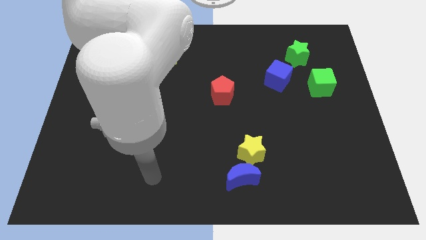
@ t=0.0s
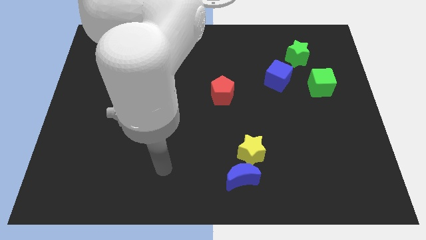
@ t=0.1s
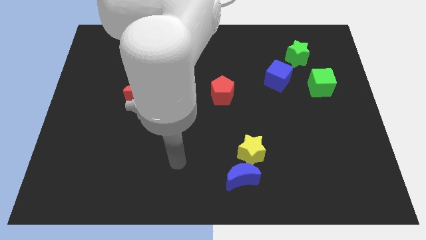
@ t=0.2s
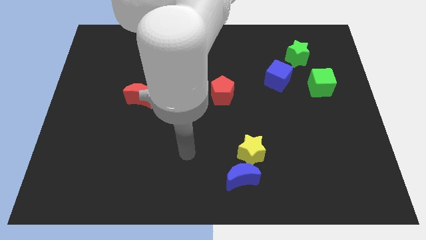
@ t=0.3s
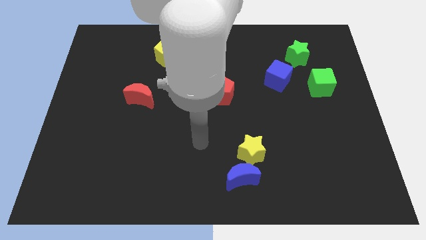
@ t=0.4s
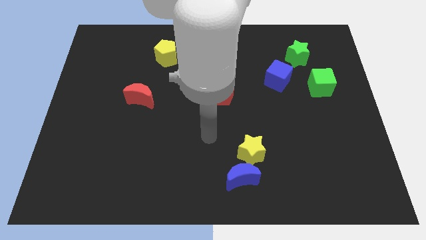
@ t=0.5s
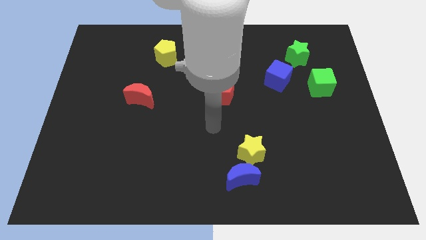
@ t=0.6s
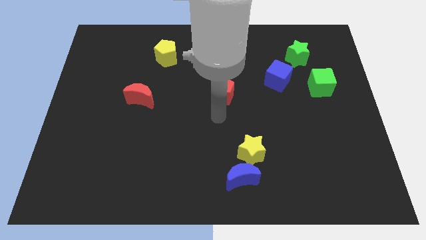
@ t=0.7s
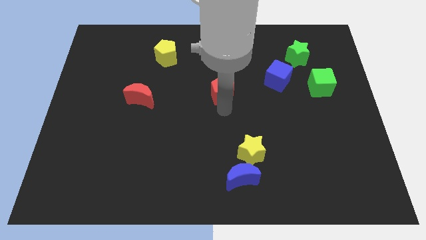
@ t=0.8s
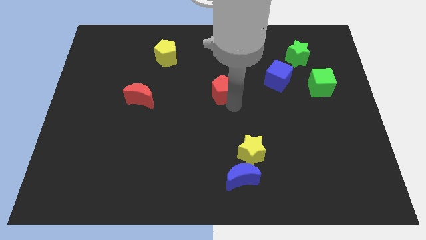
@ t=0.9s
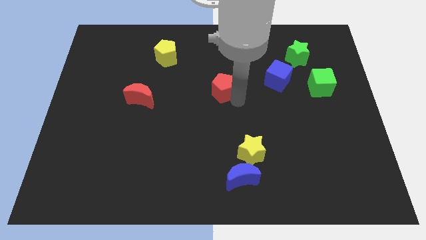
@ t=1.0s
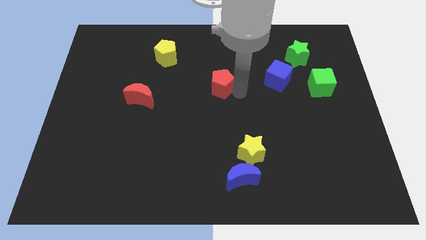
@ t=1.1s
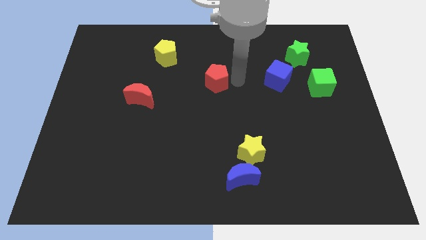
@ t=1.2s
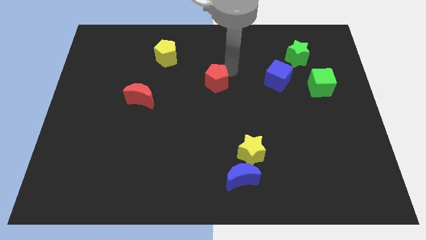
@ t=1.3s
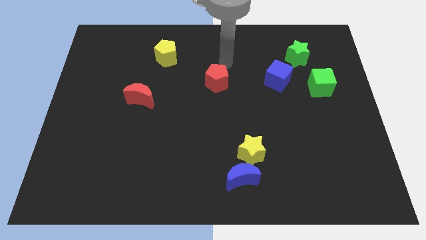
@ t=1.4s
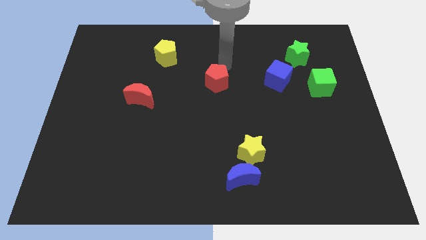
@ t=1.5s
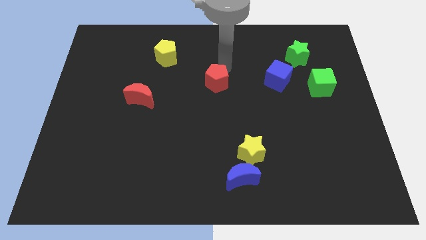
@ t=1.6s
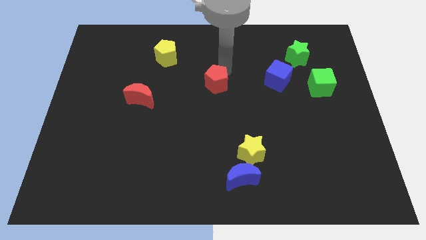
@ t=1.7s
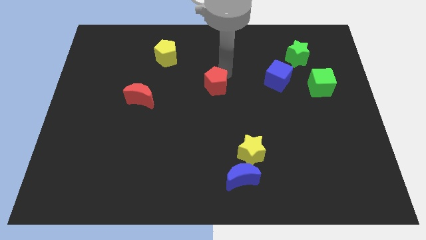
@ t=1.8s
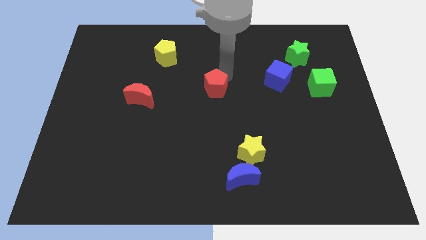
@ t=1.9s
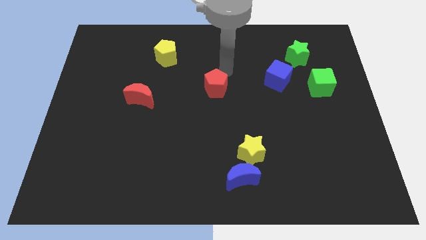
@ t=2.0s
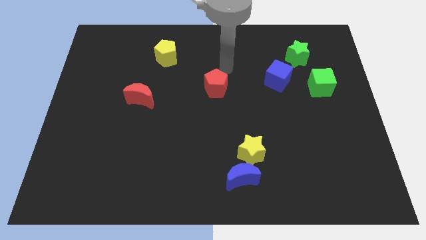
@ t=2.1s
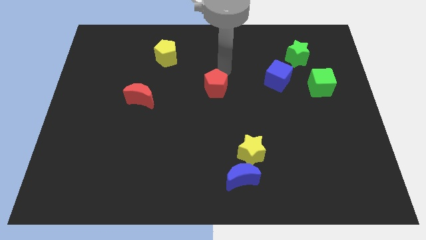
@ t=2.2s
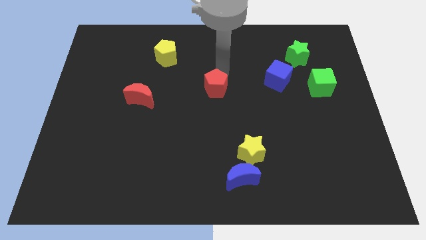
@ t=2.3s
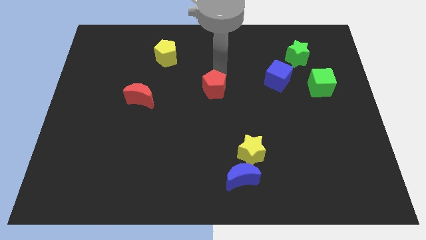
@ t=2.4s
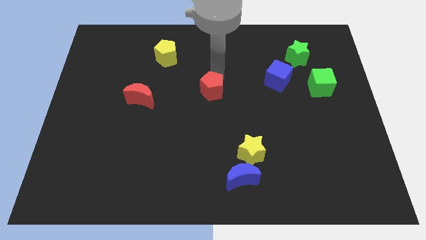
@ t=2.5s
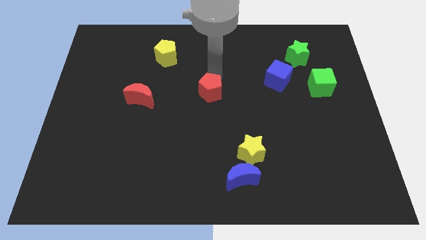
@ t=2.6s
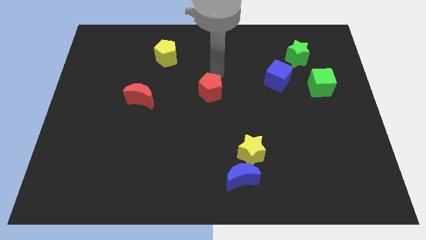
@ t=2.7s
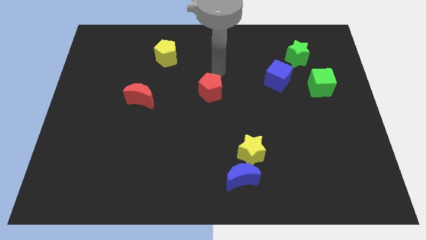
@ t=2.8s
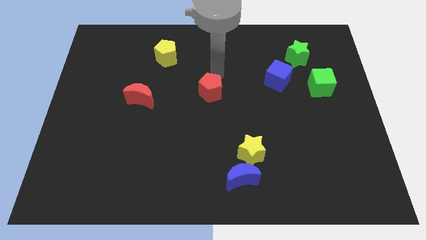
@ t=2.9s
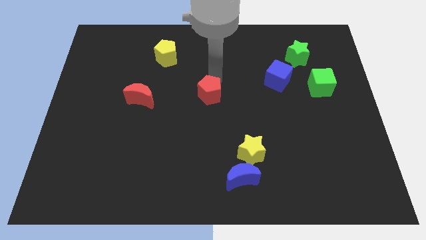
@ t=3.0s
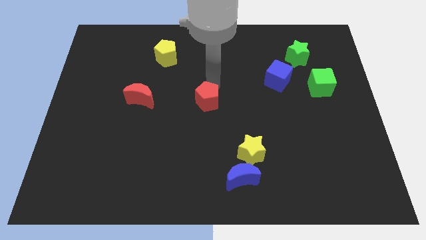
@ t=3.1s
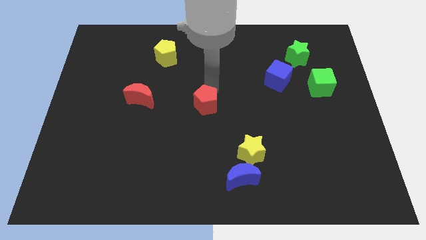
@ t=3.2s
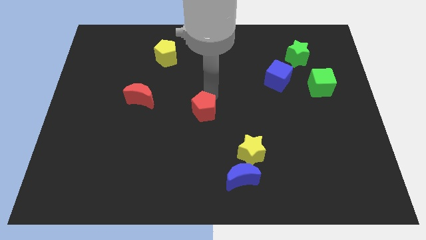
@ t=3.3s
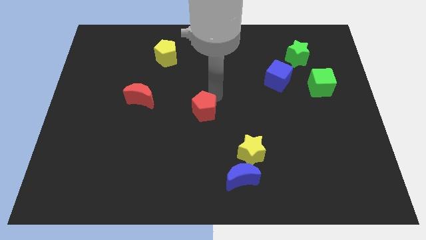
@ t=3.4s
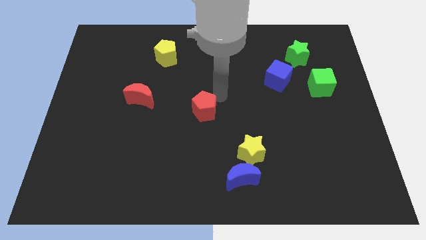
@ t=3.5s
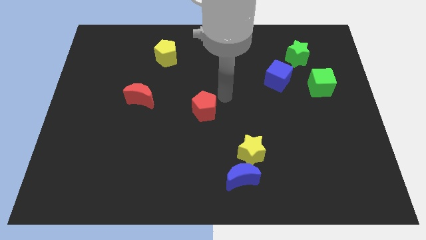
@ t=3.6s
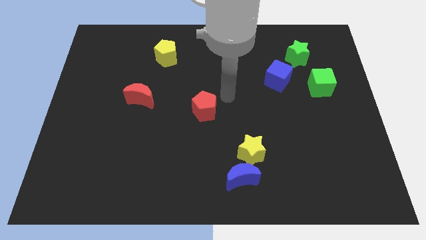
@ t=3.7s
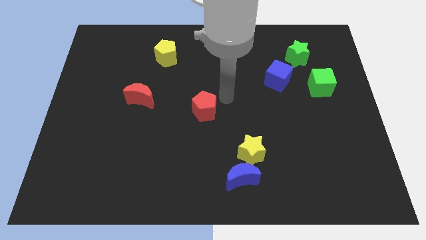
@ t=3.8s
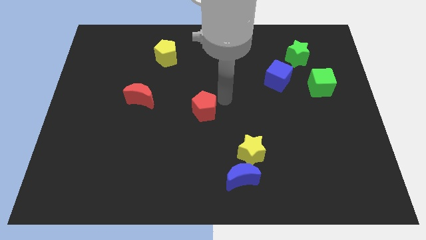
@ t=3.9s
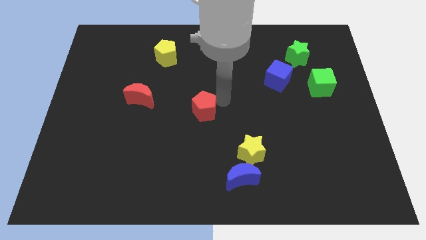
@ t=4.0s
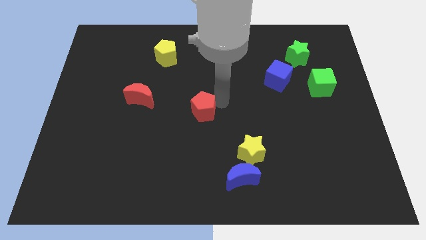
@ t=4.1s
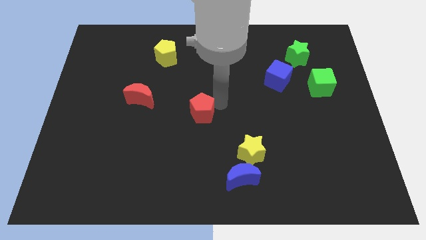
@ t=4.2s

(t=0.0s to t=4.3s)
move the red pentagon downwards and then left a bit

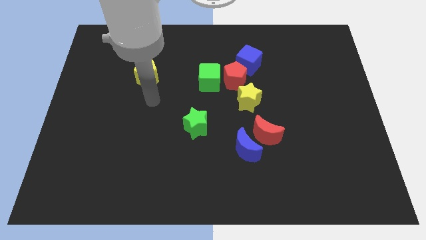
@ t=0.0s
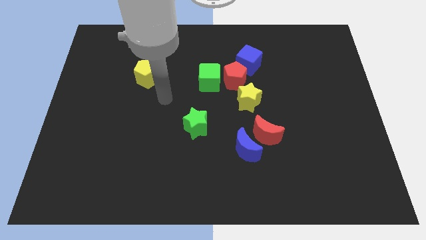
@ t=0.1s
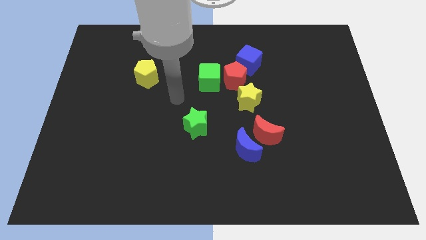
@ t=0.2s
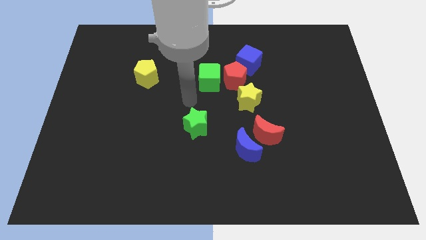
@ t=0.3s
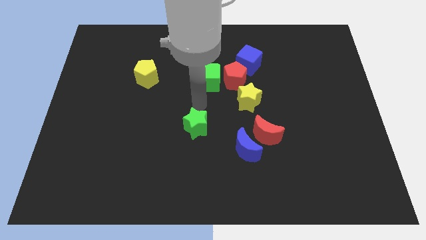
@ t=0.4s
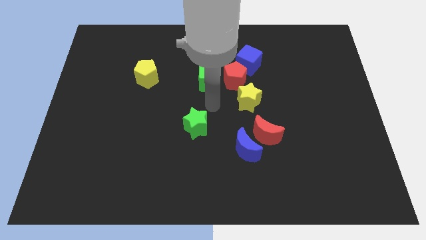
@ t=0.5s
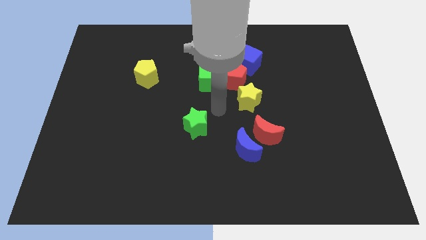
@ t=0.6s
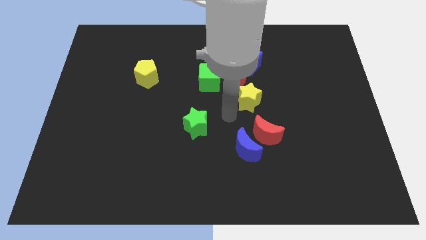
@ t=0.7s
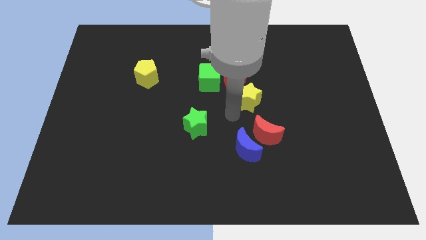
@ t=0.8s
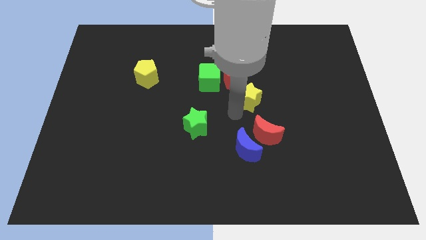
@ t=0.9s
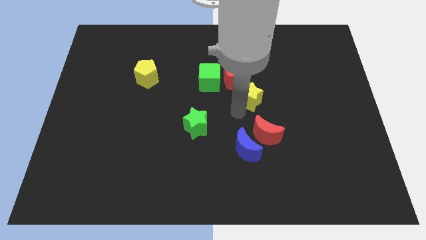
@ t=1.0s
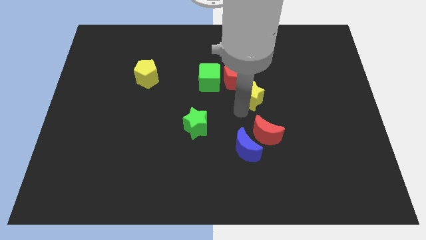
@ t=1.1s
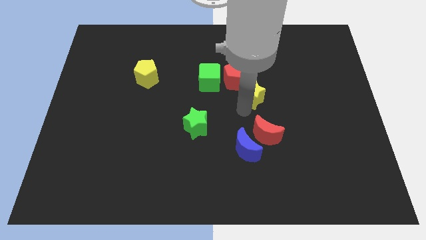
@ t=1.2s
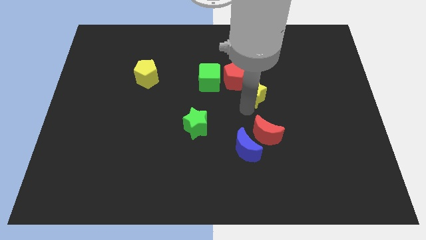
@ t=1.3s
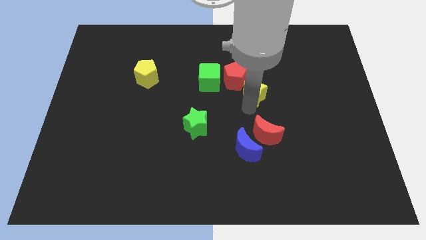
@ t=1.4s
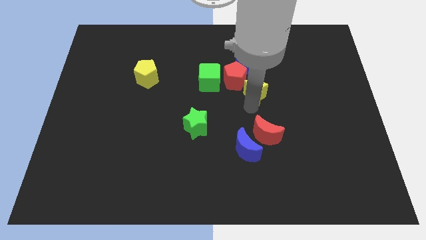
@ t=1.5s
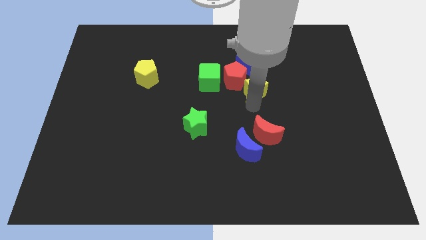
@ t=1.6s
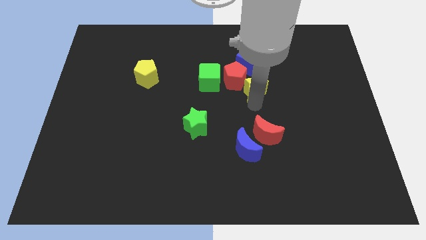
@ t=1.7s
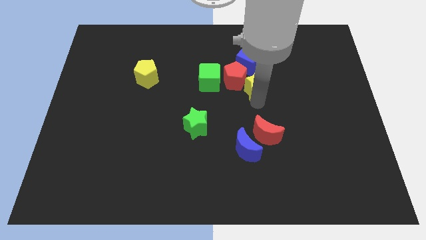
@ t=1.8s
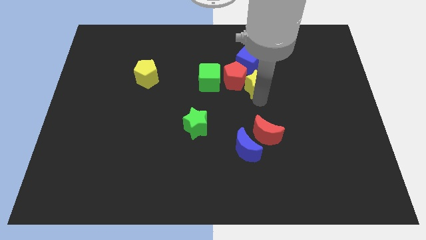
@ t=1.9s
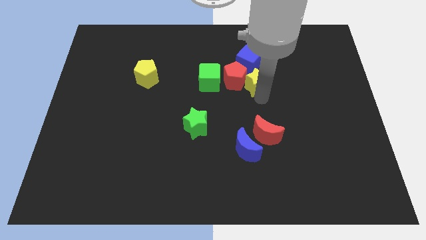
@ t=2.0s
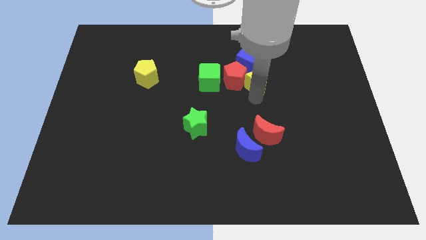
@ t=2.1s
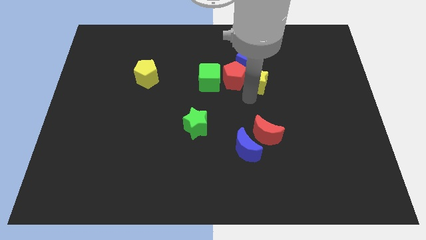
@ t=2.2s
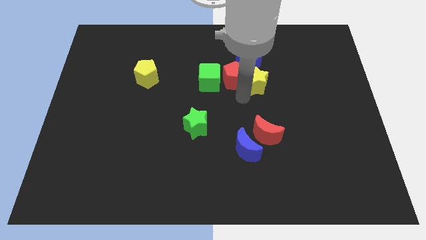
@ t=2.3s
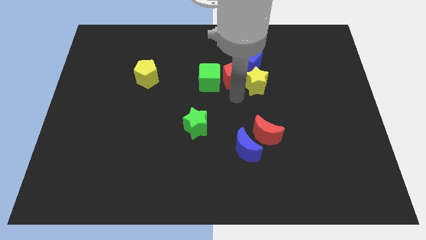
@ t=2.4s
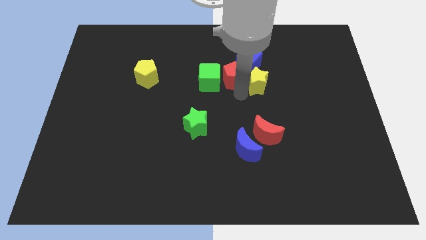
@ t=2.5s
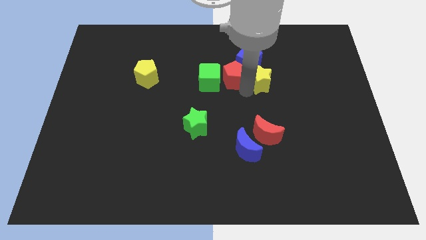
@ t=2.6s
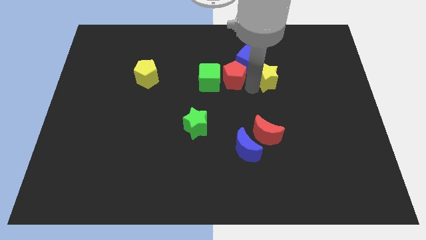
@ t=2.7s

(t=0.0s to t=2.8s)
slightly slide the yellow star diagonally upwards and to the right

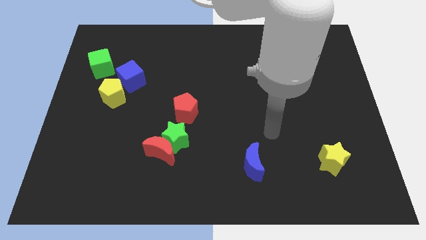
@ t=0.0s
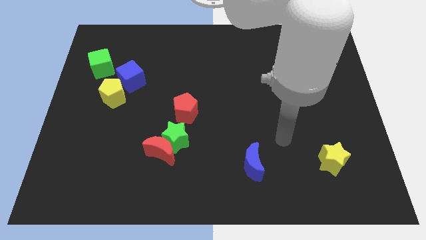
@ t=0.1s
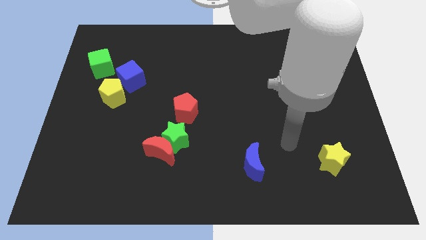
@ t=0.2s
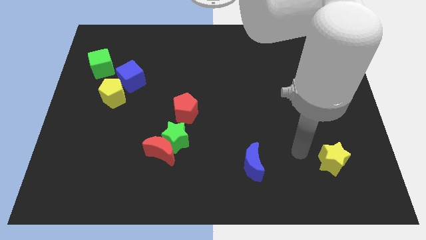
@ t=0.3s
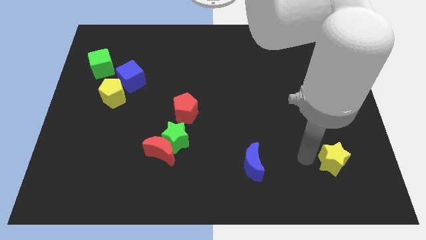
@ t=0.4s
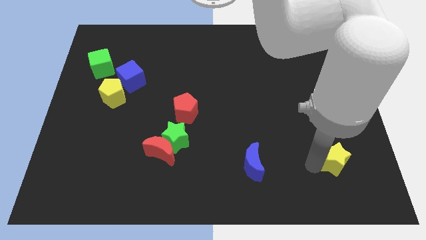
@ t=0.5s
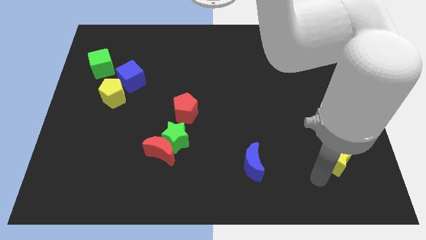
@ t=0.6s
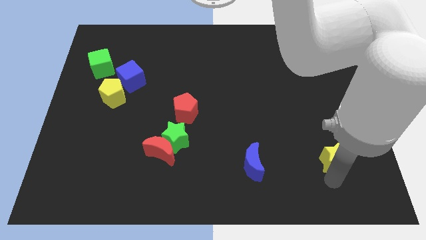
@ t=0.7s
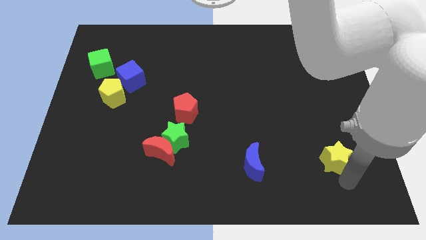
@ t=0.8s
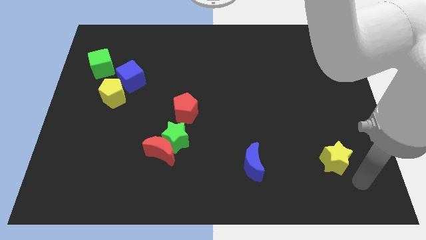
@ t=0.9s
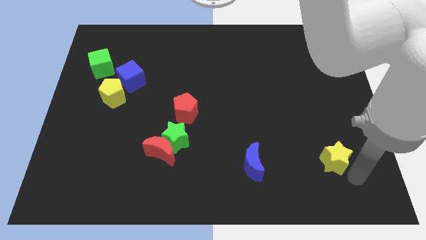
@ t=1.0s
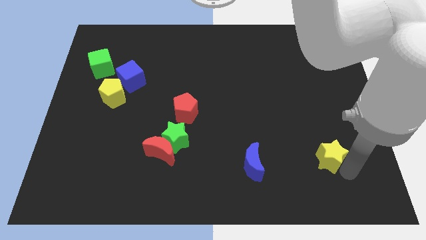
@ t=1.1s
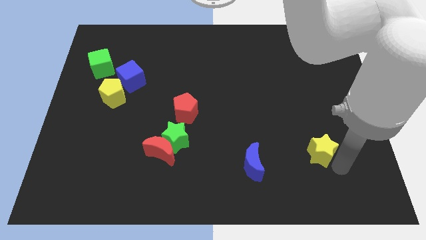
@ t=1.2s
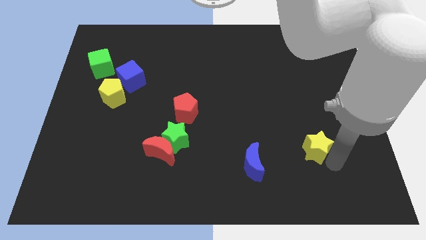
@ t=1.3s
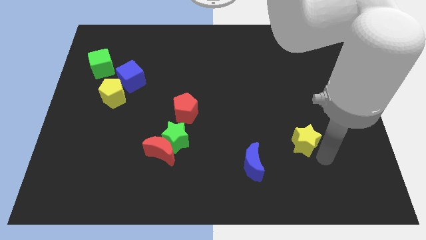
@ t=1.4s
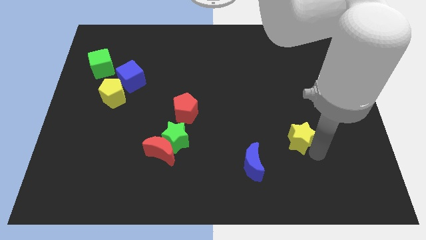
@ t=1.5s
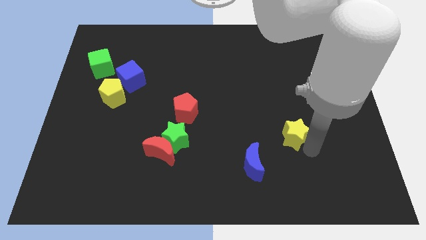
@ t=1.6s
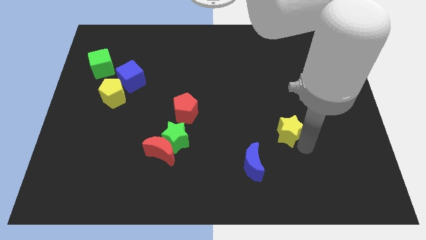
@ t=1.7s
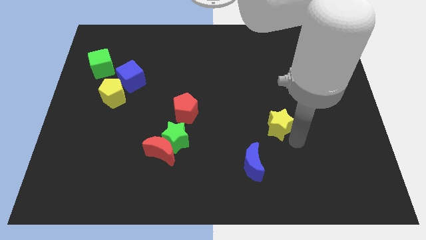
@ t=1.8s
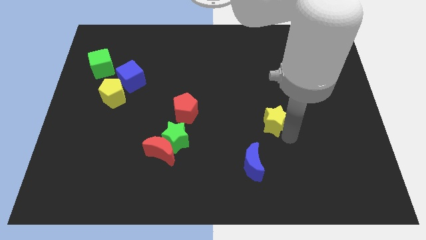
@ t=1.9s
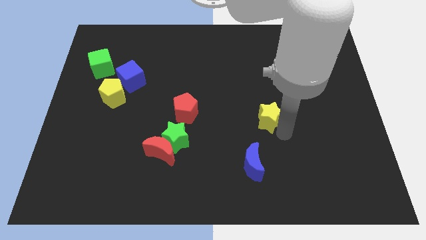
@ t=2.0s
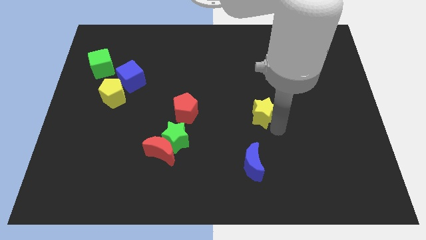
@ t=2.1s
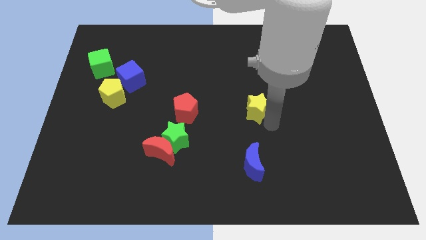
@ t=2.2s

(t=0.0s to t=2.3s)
push the yellow star up and then to the left
